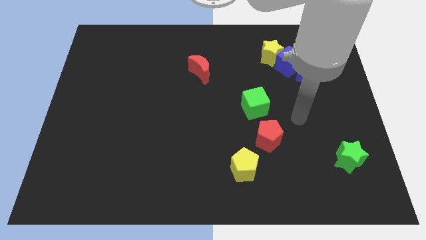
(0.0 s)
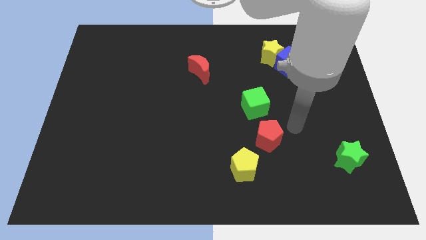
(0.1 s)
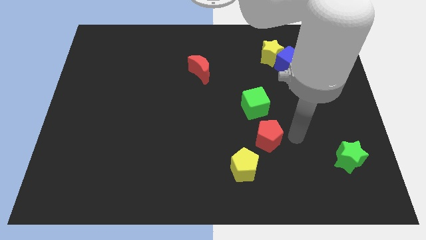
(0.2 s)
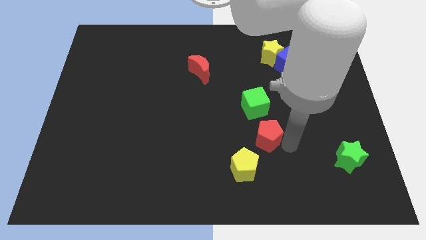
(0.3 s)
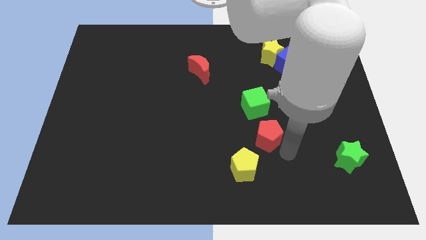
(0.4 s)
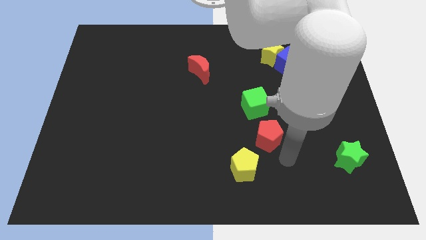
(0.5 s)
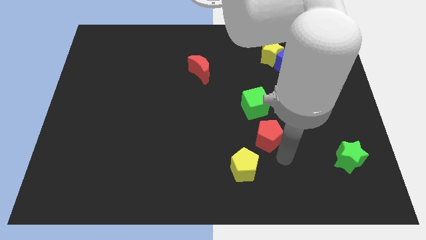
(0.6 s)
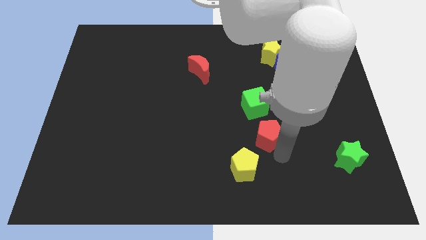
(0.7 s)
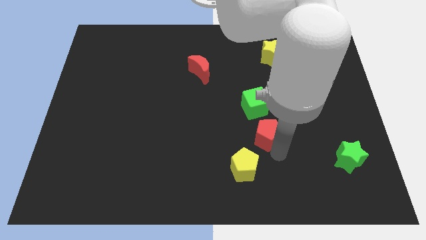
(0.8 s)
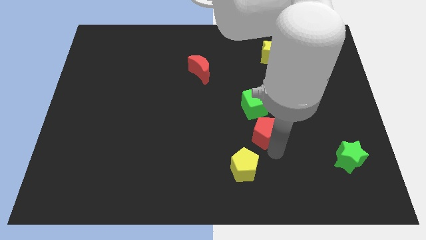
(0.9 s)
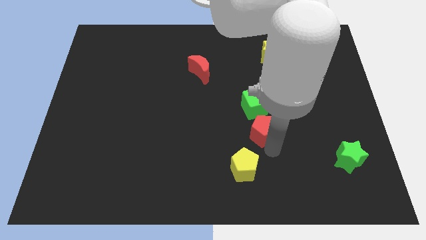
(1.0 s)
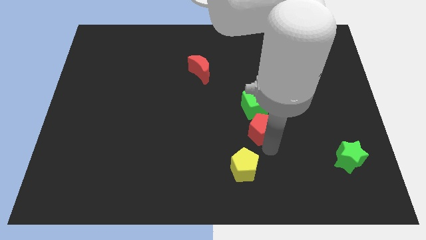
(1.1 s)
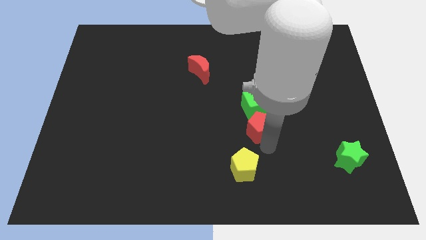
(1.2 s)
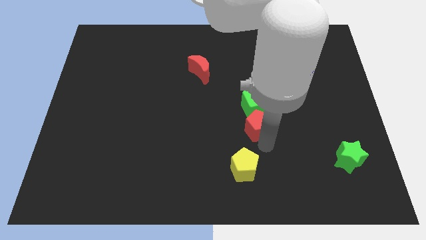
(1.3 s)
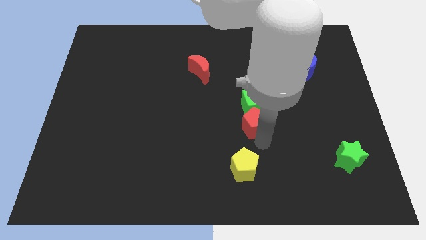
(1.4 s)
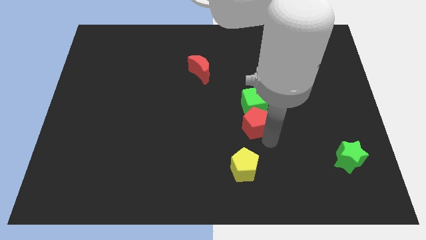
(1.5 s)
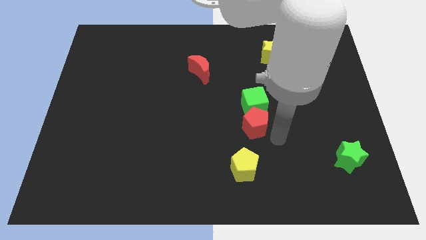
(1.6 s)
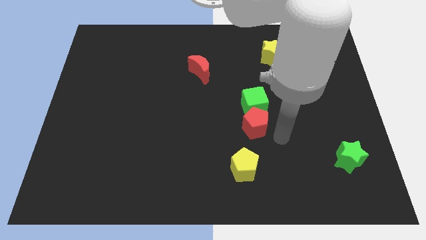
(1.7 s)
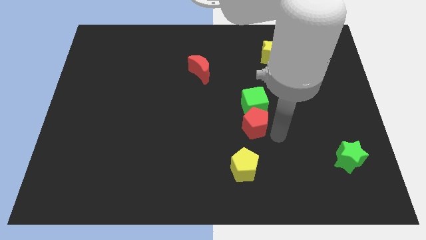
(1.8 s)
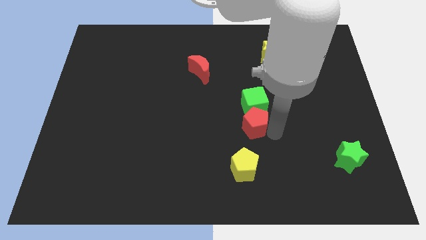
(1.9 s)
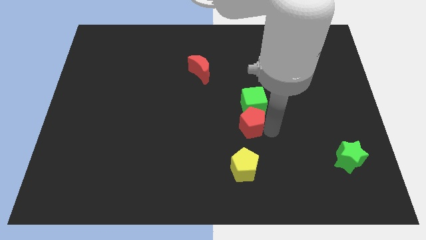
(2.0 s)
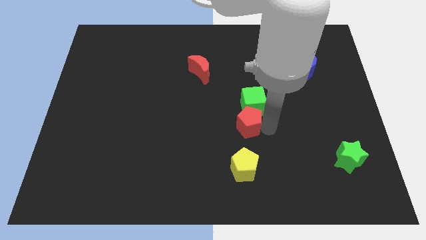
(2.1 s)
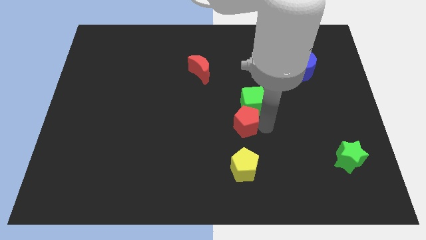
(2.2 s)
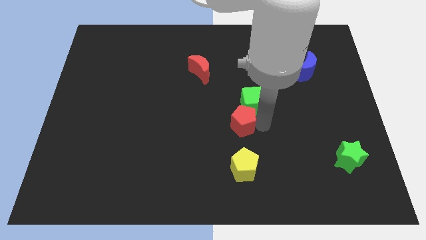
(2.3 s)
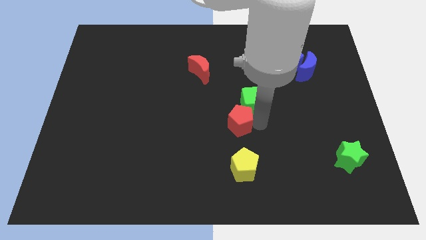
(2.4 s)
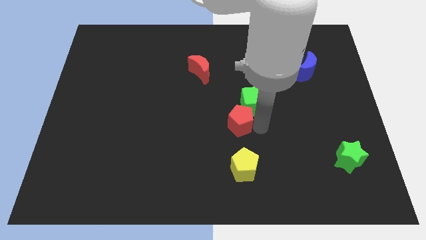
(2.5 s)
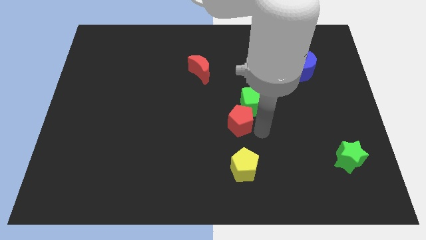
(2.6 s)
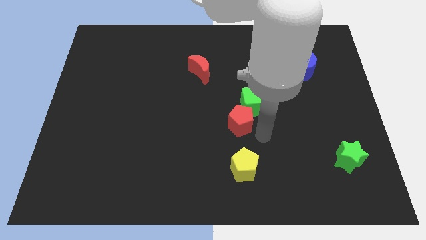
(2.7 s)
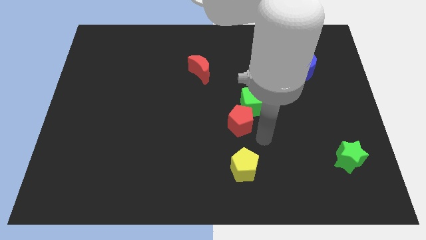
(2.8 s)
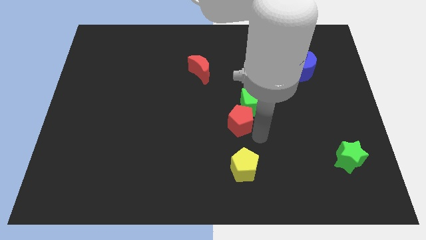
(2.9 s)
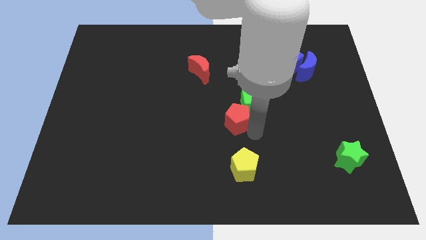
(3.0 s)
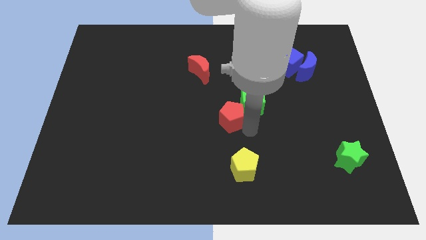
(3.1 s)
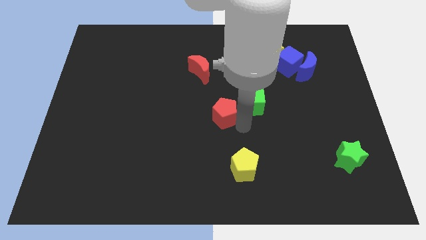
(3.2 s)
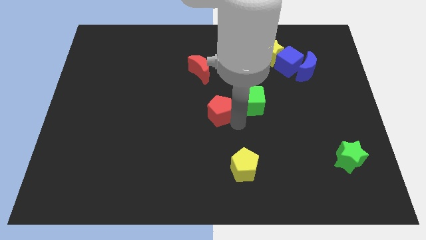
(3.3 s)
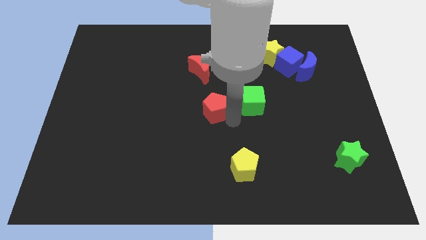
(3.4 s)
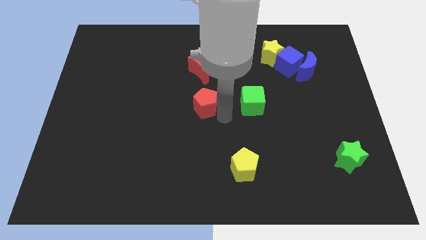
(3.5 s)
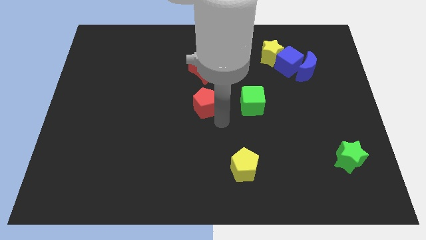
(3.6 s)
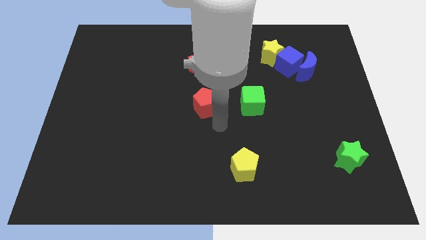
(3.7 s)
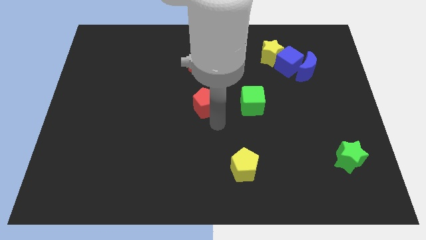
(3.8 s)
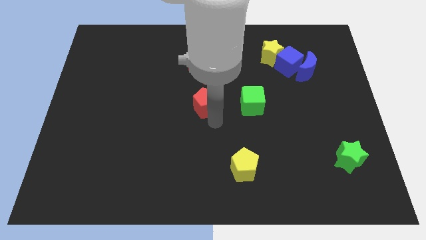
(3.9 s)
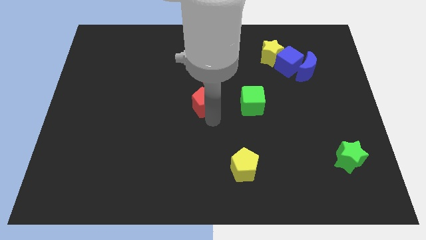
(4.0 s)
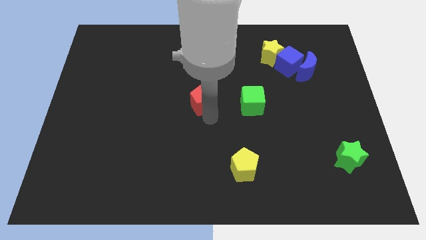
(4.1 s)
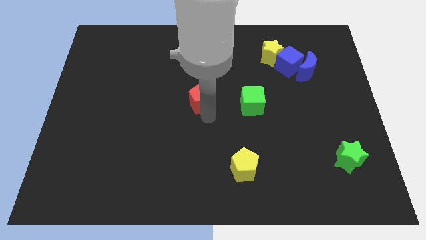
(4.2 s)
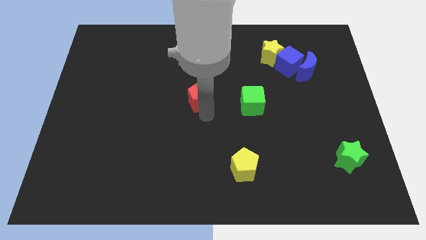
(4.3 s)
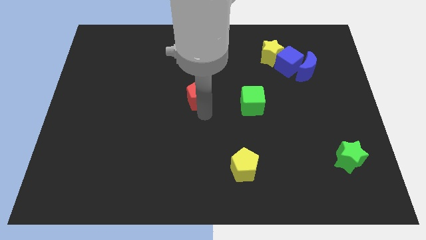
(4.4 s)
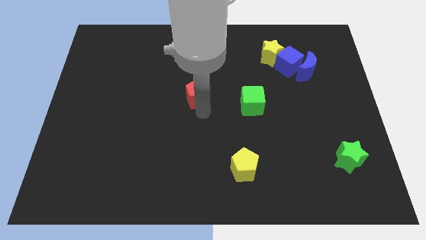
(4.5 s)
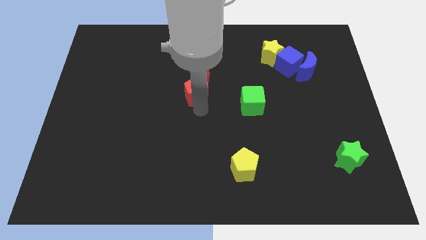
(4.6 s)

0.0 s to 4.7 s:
move the red pentagon upwards and then to the left

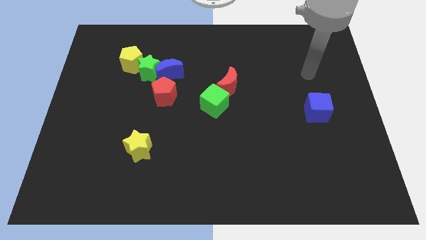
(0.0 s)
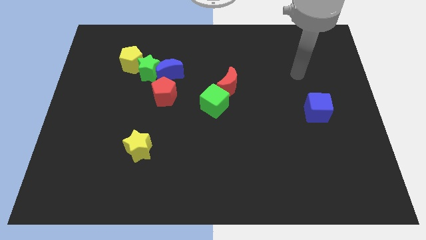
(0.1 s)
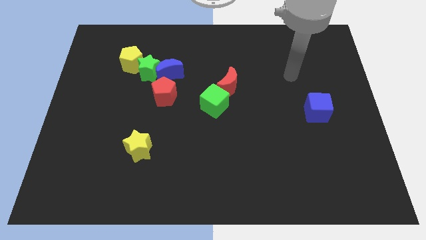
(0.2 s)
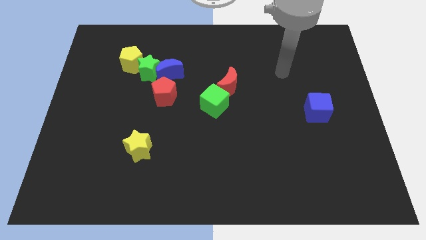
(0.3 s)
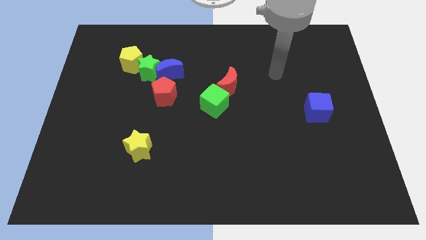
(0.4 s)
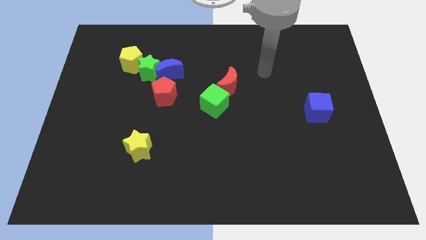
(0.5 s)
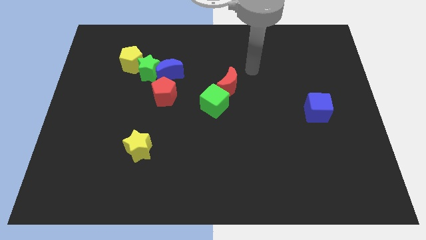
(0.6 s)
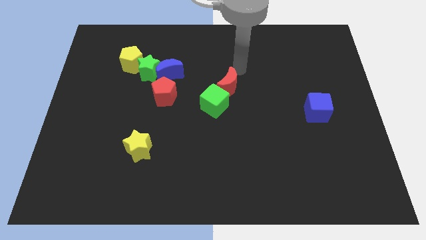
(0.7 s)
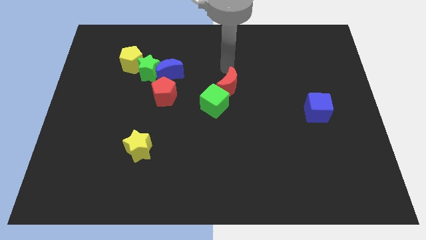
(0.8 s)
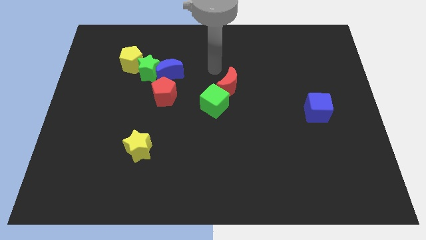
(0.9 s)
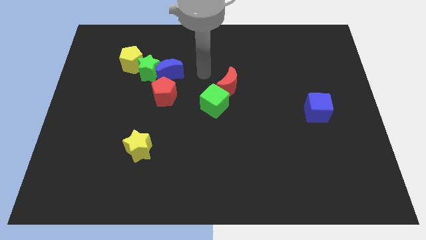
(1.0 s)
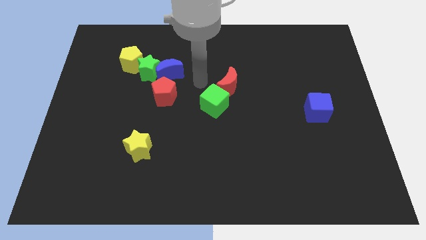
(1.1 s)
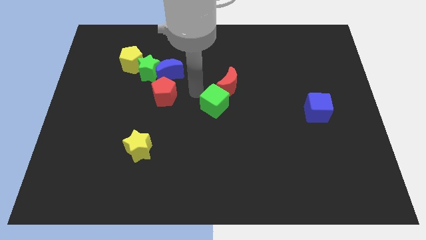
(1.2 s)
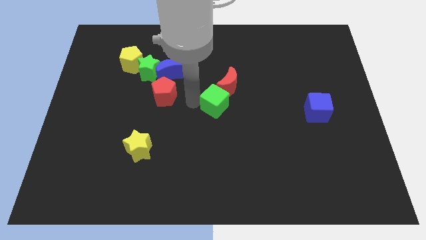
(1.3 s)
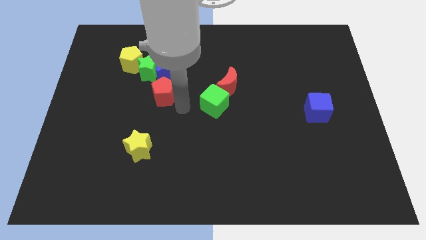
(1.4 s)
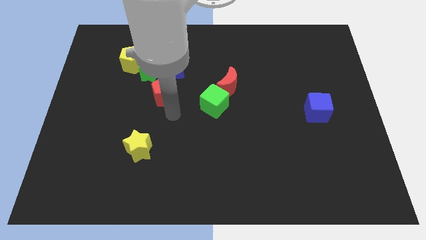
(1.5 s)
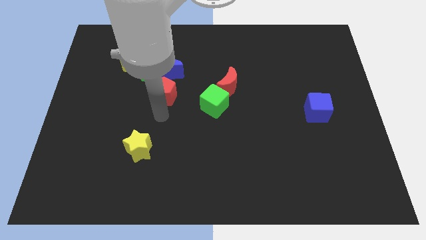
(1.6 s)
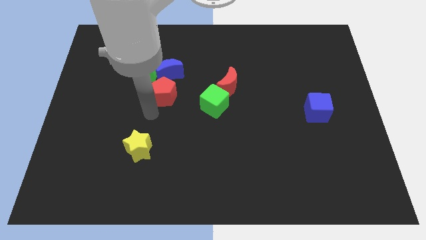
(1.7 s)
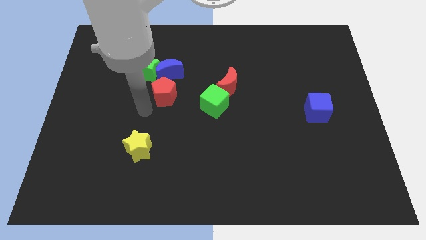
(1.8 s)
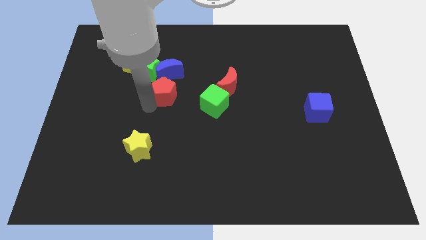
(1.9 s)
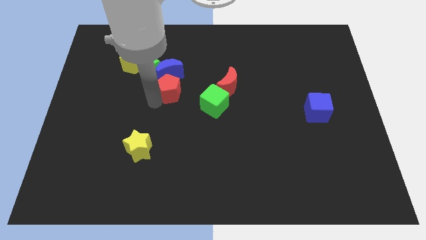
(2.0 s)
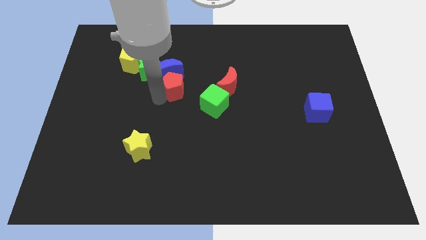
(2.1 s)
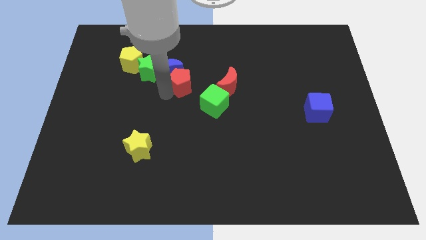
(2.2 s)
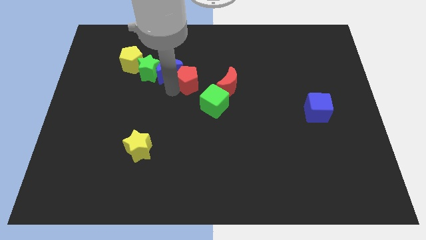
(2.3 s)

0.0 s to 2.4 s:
move the red pentagon up and to the right somewhat

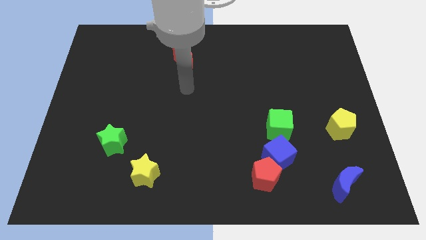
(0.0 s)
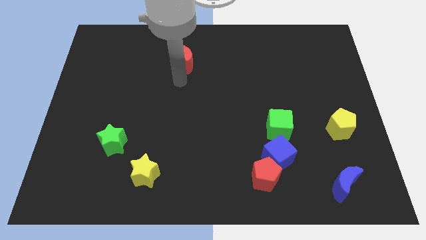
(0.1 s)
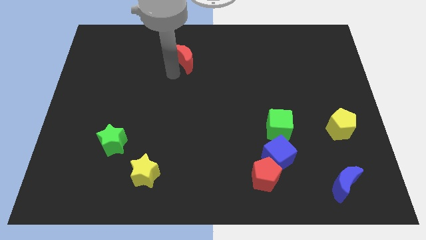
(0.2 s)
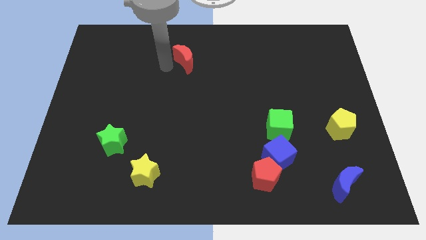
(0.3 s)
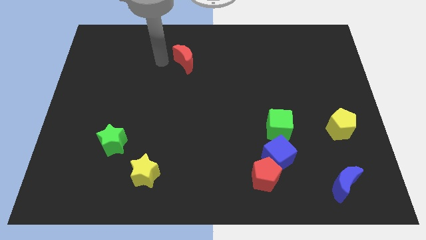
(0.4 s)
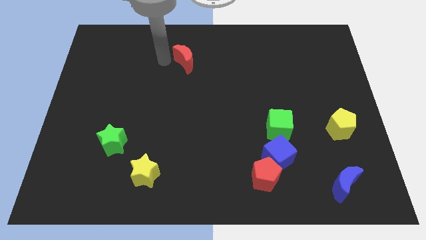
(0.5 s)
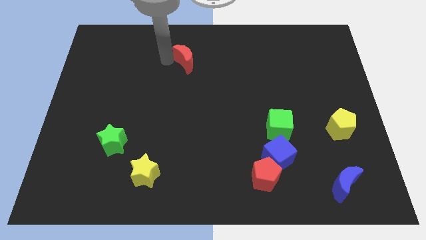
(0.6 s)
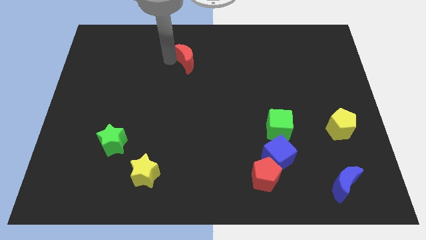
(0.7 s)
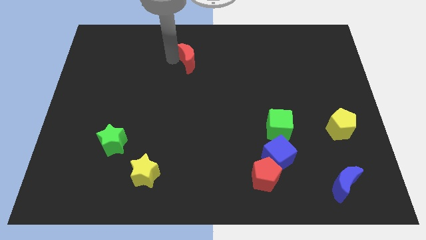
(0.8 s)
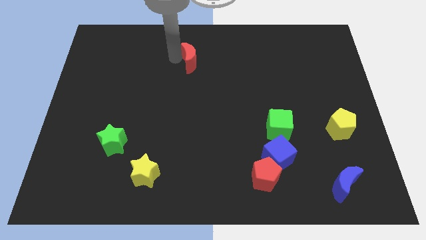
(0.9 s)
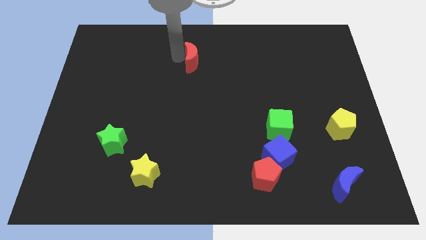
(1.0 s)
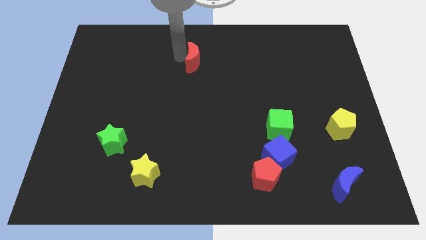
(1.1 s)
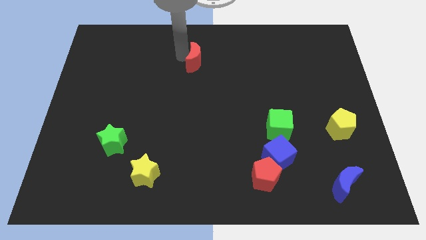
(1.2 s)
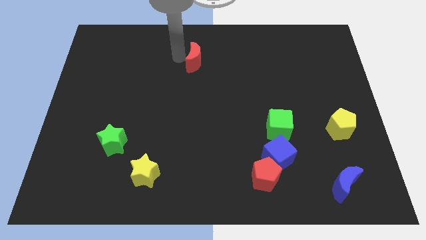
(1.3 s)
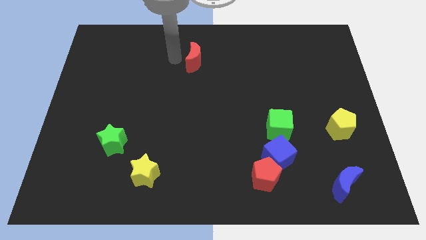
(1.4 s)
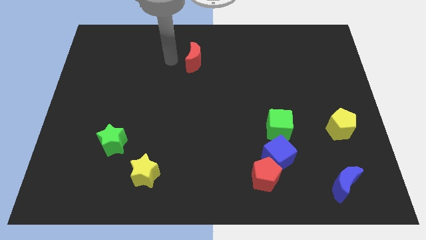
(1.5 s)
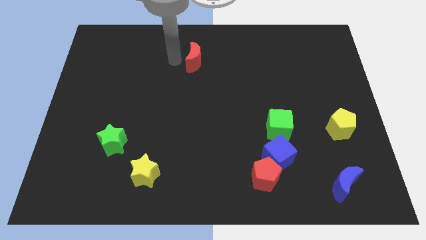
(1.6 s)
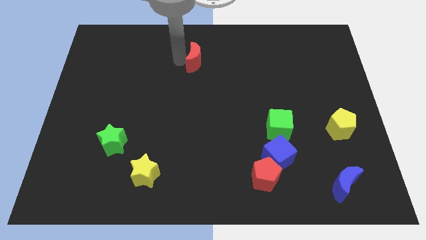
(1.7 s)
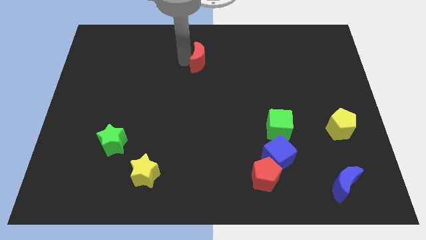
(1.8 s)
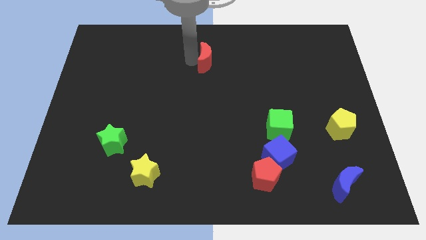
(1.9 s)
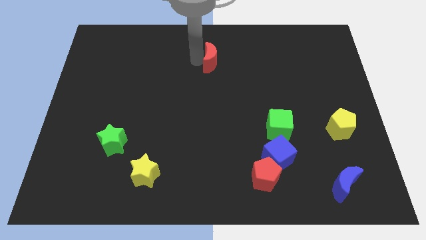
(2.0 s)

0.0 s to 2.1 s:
move the red moon right a little
